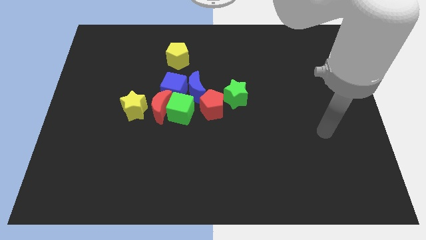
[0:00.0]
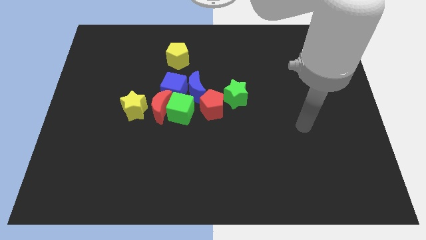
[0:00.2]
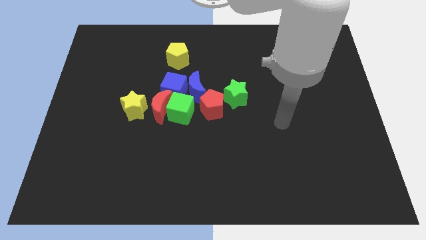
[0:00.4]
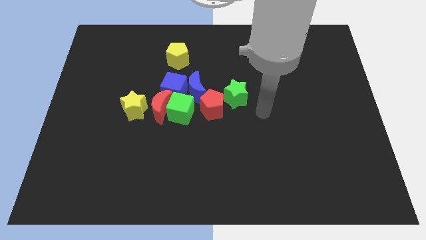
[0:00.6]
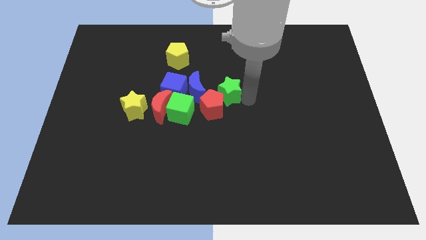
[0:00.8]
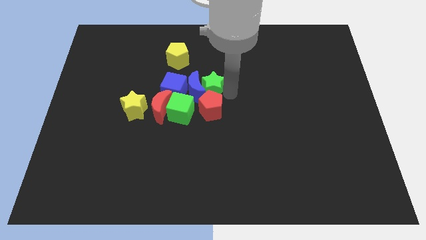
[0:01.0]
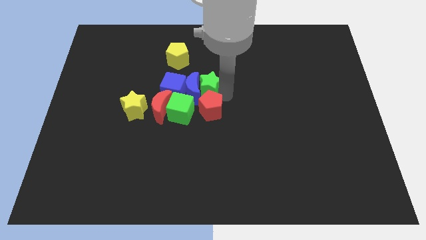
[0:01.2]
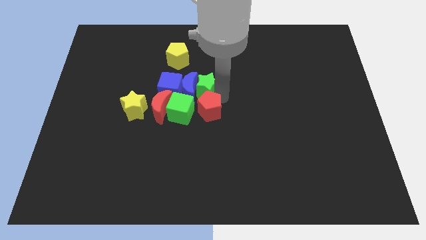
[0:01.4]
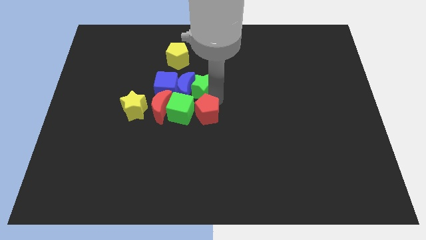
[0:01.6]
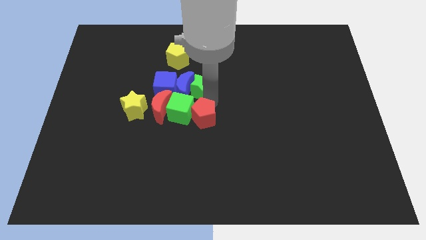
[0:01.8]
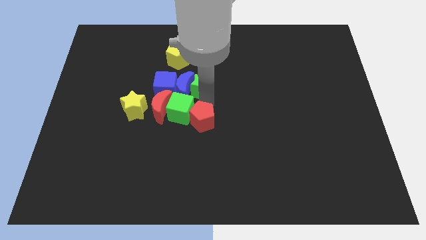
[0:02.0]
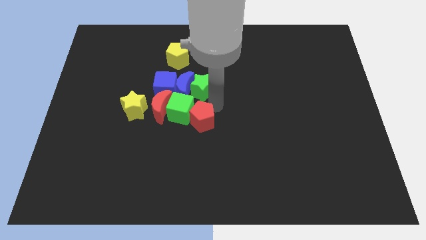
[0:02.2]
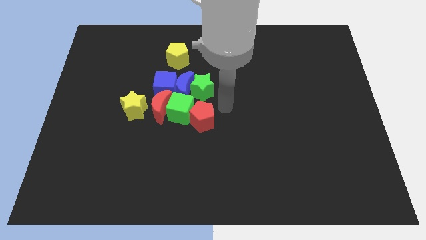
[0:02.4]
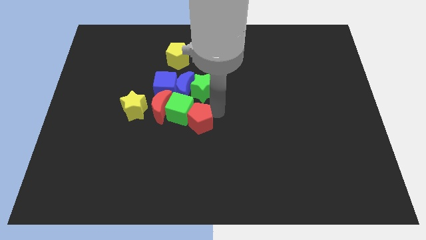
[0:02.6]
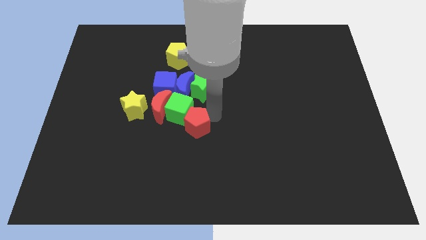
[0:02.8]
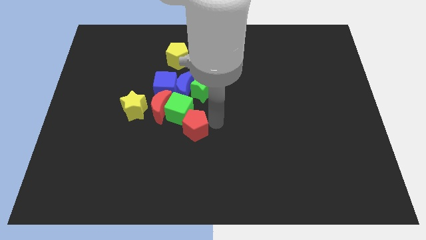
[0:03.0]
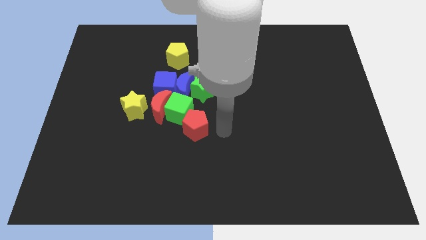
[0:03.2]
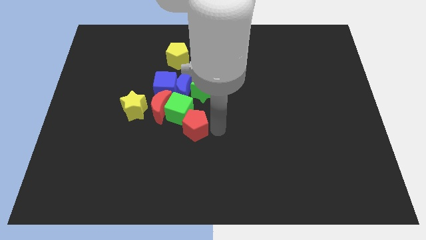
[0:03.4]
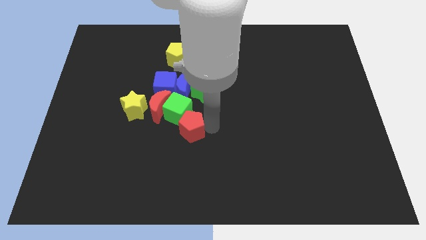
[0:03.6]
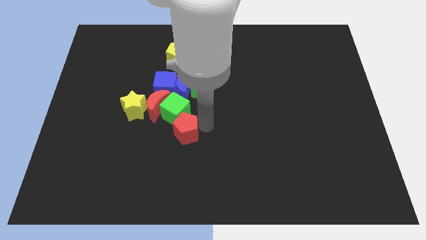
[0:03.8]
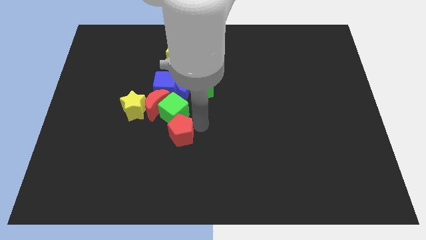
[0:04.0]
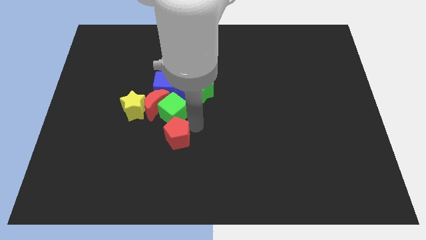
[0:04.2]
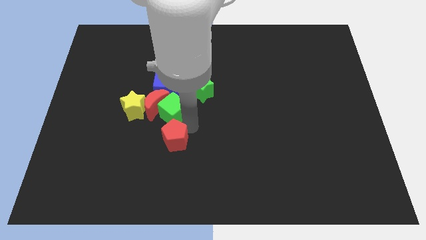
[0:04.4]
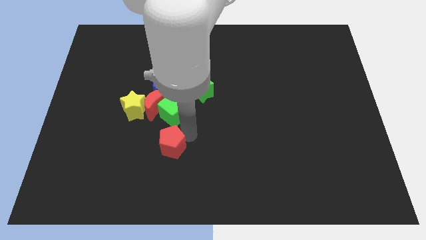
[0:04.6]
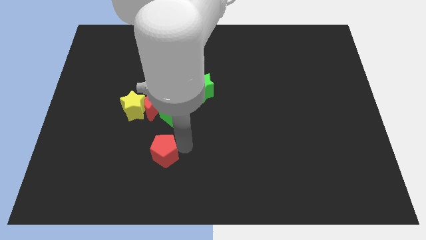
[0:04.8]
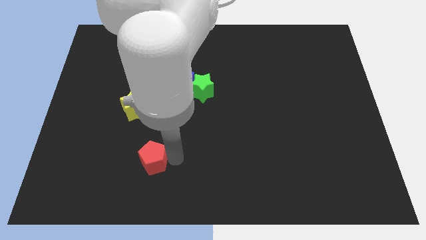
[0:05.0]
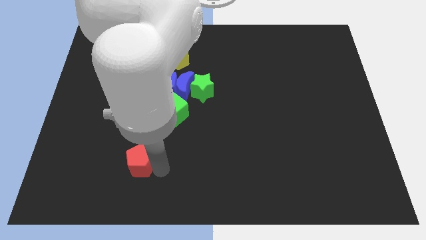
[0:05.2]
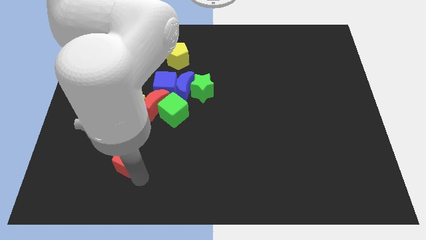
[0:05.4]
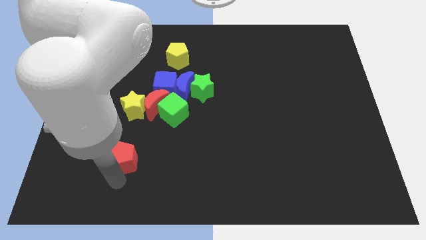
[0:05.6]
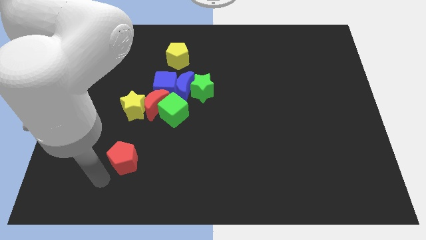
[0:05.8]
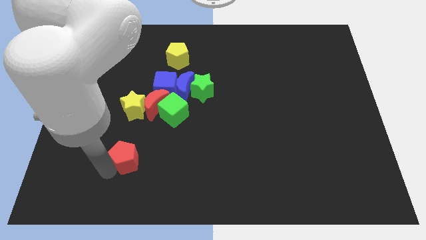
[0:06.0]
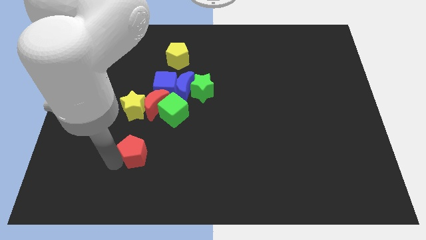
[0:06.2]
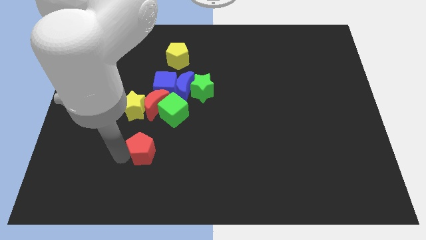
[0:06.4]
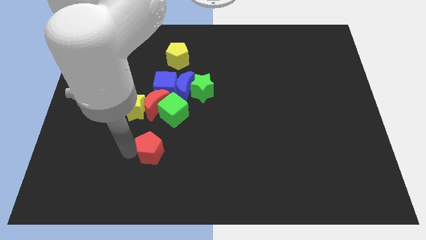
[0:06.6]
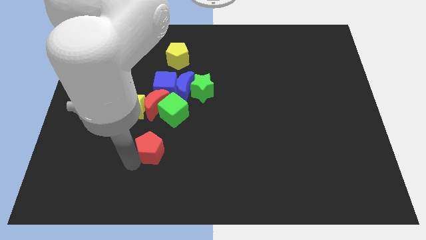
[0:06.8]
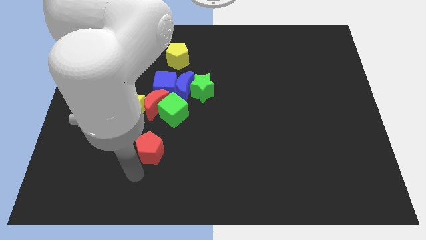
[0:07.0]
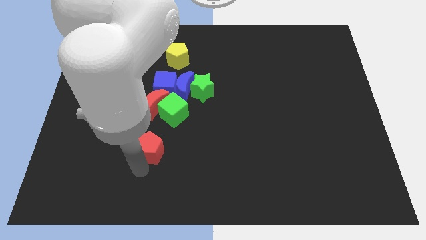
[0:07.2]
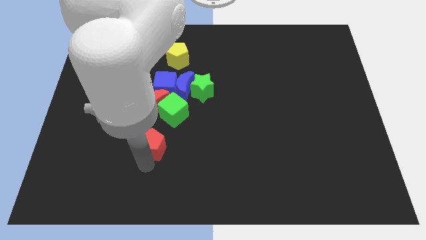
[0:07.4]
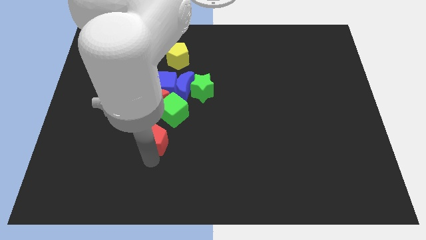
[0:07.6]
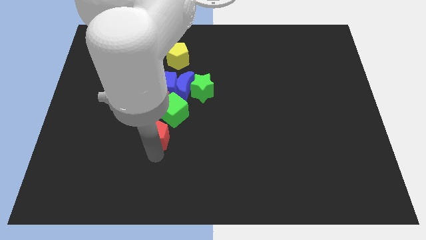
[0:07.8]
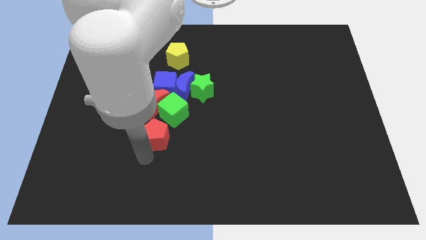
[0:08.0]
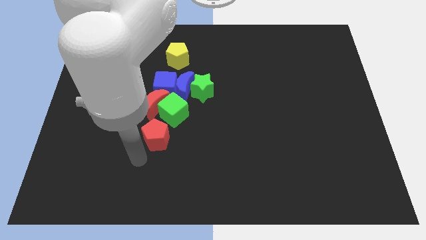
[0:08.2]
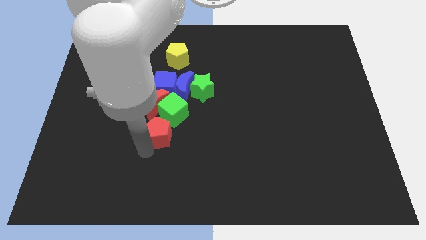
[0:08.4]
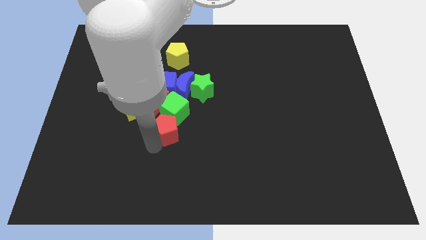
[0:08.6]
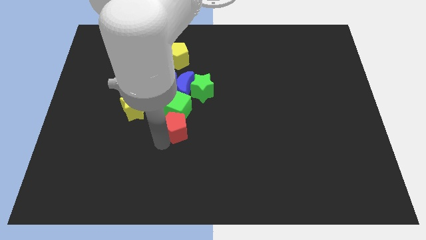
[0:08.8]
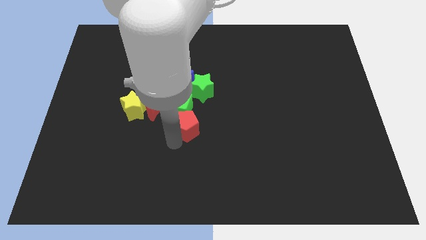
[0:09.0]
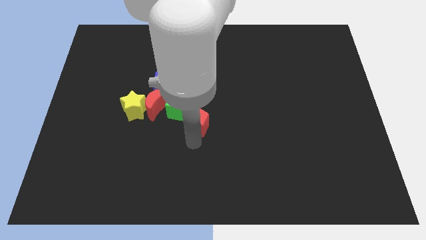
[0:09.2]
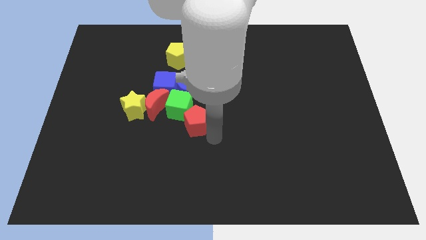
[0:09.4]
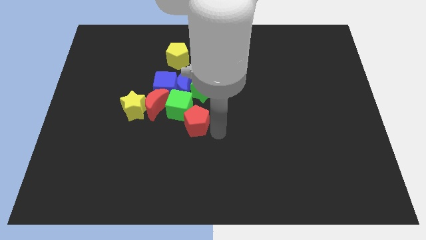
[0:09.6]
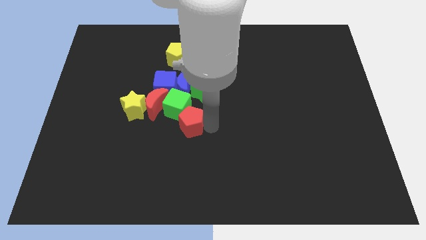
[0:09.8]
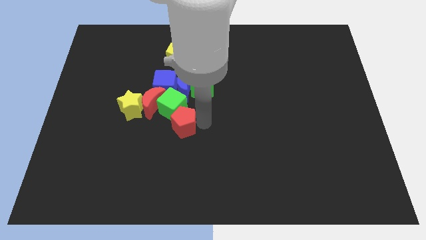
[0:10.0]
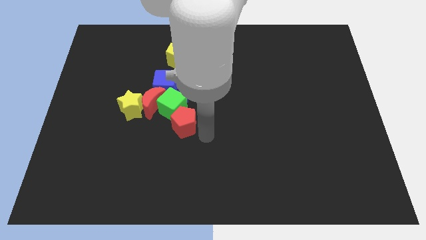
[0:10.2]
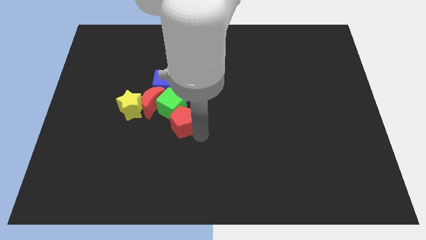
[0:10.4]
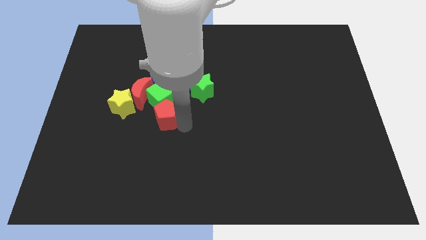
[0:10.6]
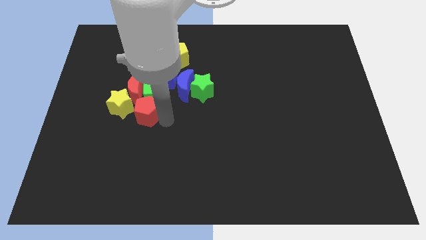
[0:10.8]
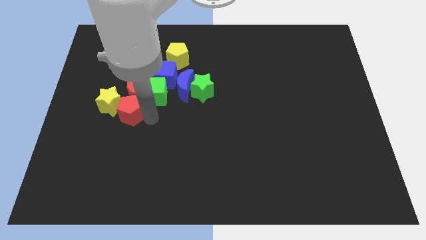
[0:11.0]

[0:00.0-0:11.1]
slide the red pentagon next to the red moon

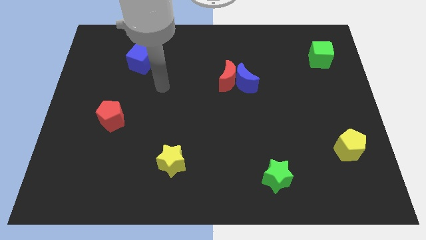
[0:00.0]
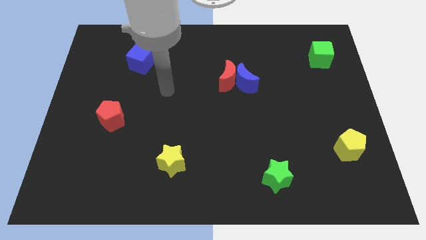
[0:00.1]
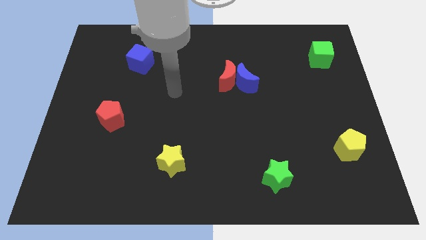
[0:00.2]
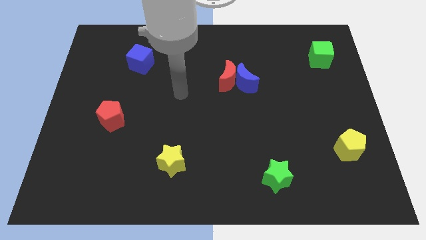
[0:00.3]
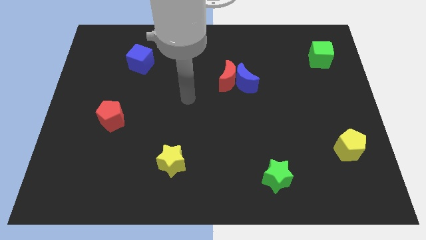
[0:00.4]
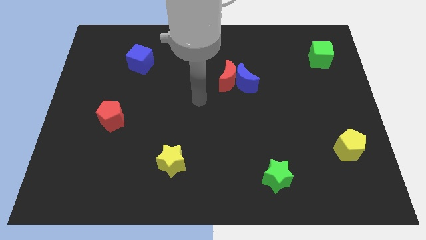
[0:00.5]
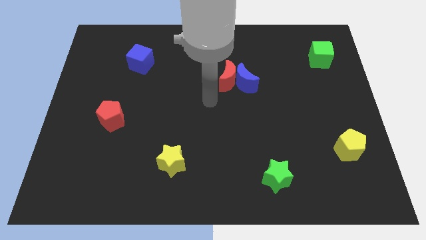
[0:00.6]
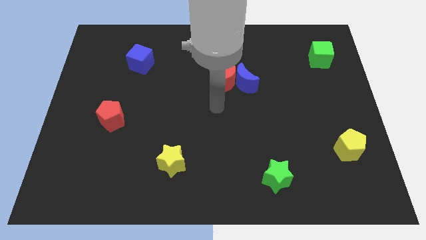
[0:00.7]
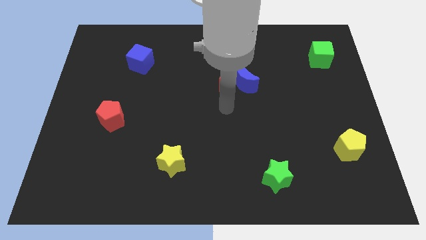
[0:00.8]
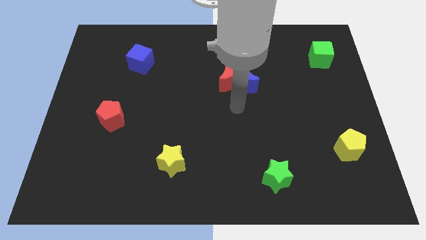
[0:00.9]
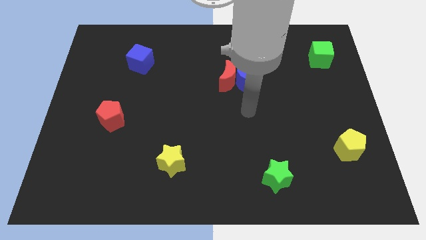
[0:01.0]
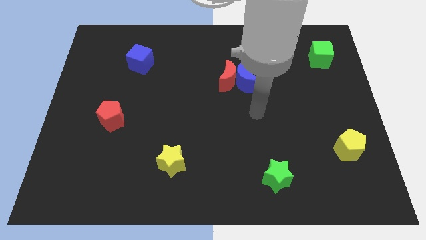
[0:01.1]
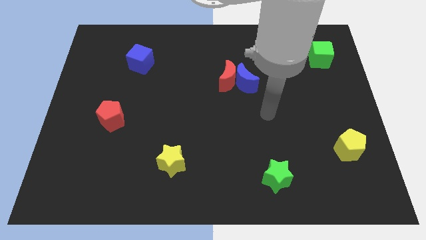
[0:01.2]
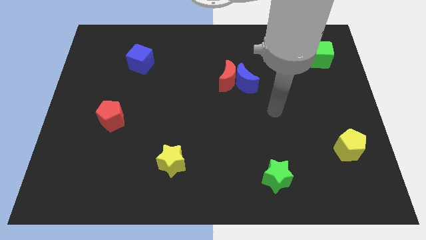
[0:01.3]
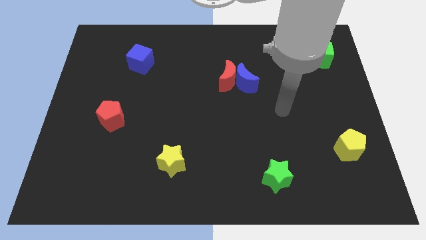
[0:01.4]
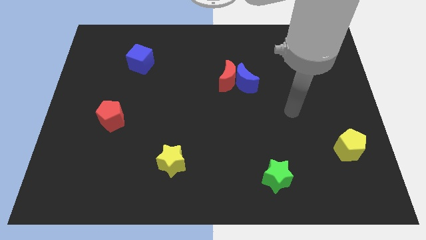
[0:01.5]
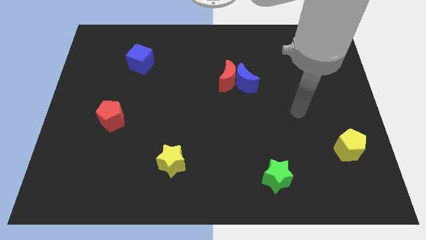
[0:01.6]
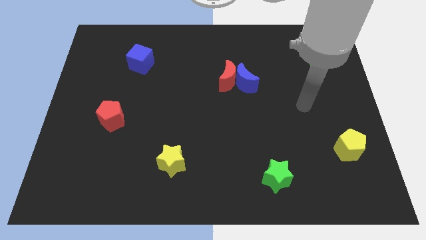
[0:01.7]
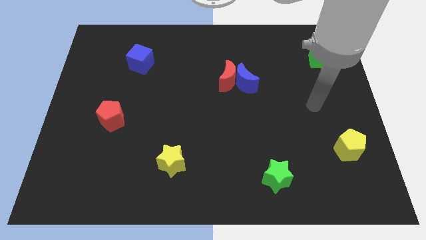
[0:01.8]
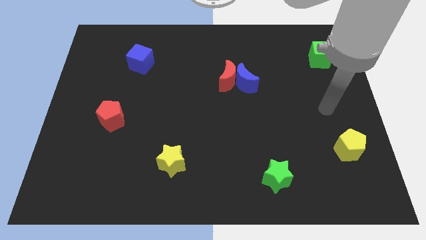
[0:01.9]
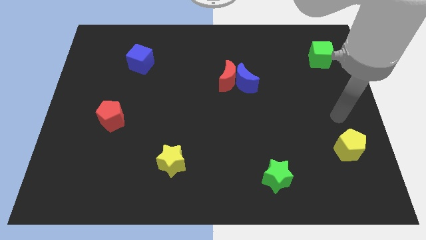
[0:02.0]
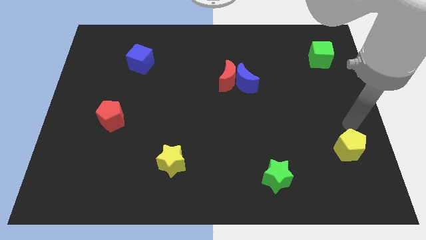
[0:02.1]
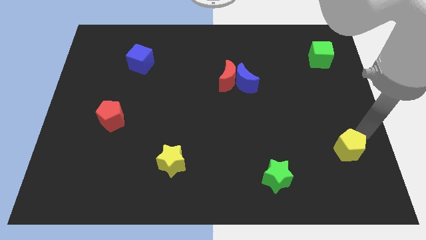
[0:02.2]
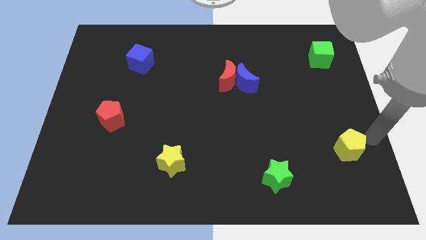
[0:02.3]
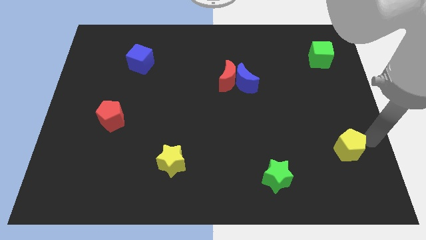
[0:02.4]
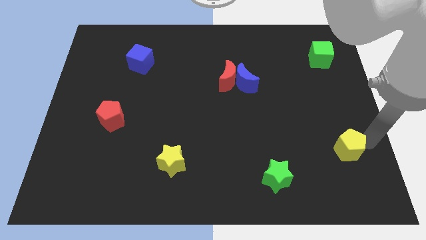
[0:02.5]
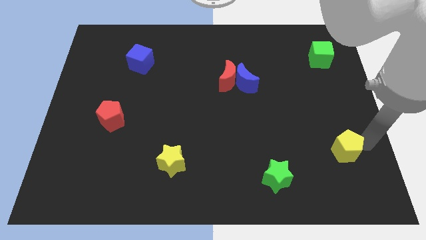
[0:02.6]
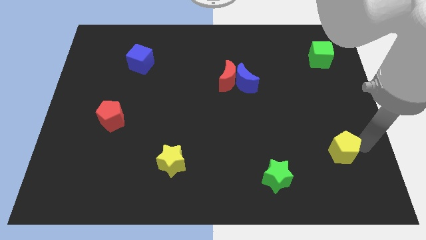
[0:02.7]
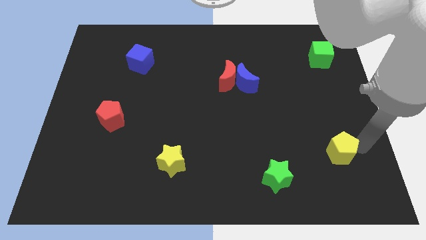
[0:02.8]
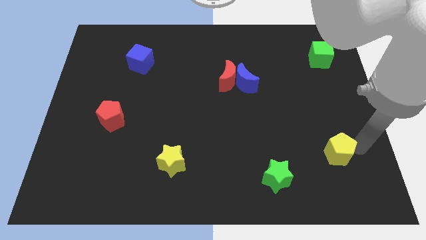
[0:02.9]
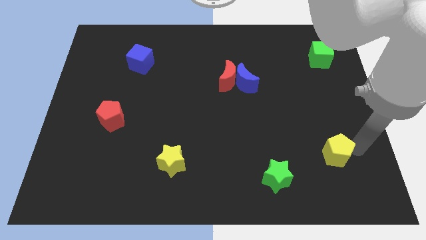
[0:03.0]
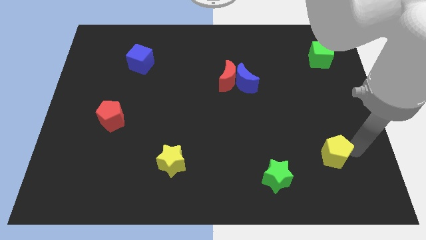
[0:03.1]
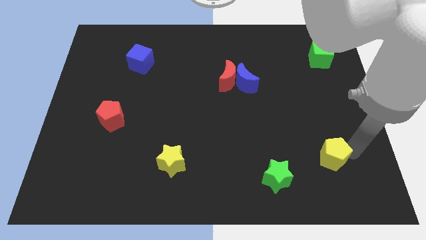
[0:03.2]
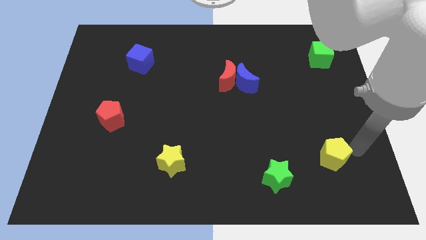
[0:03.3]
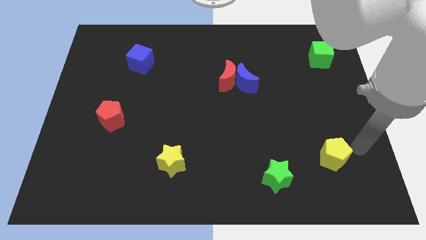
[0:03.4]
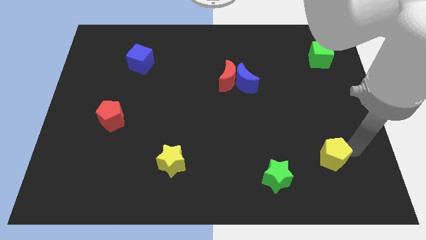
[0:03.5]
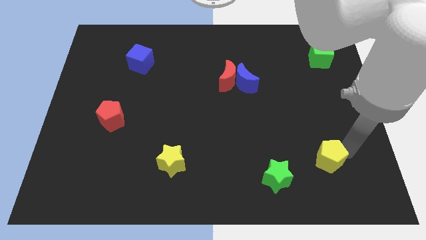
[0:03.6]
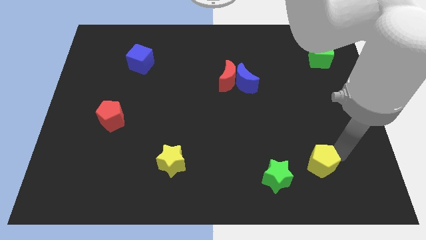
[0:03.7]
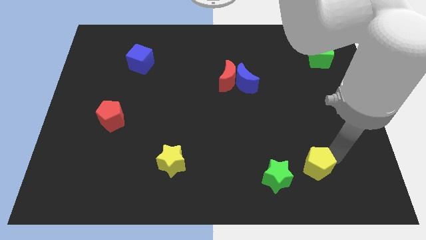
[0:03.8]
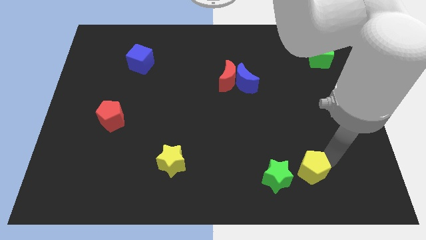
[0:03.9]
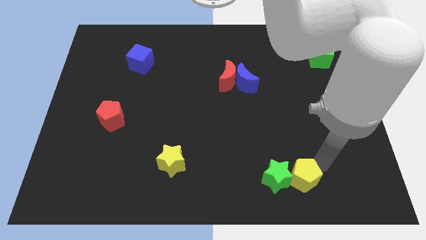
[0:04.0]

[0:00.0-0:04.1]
put the yellow pentagon close to the green star
